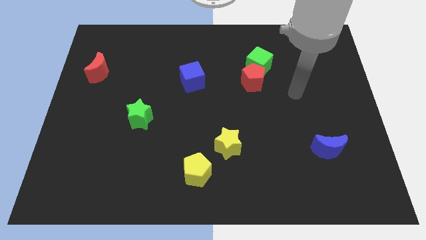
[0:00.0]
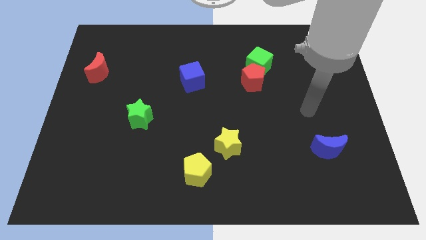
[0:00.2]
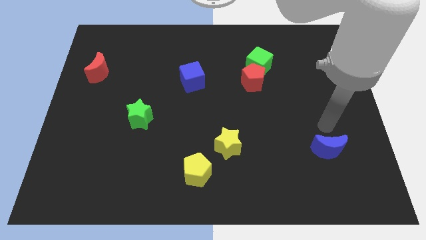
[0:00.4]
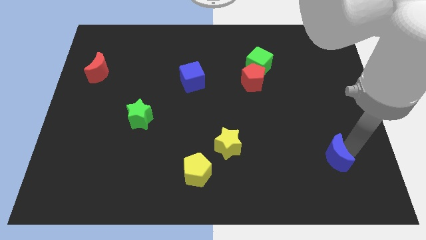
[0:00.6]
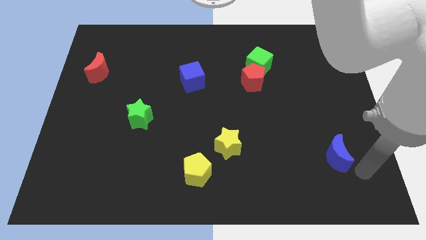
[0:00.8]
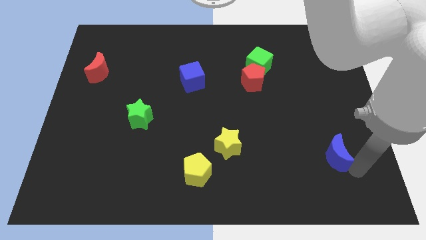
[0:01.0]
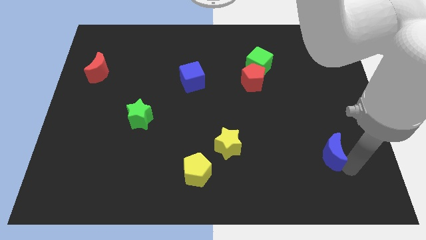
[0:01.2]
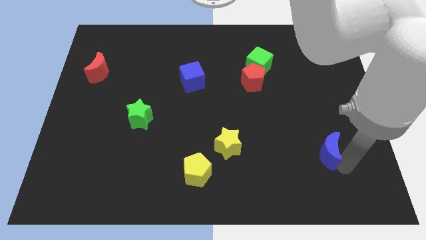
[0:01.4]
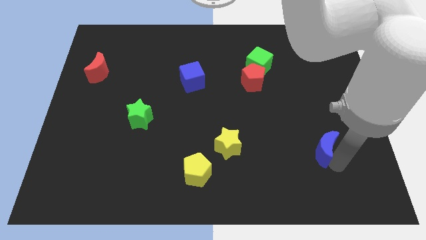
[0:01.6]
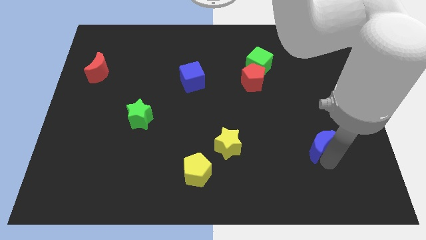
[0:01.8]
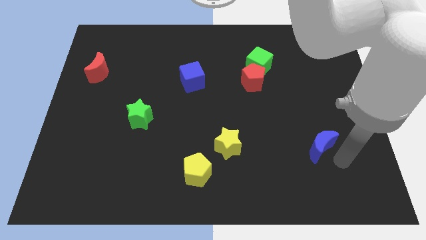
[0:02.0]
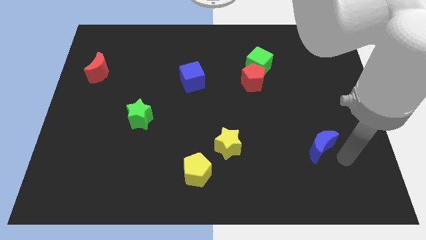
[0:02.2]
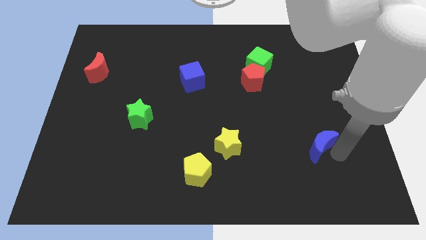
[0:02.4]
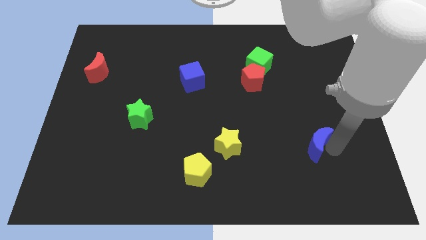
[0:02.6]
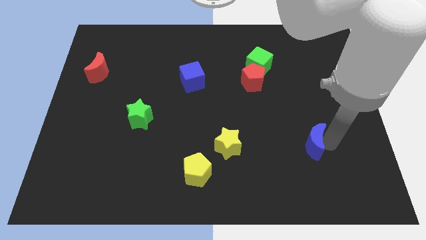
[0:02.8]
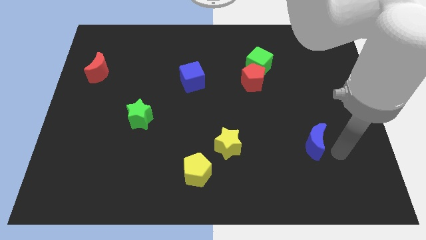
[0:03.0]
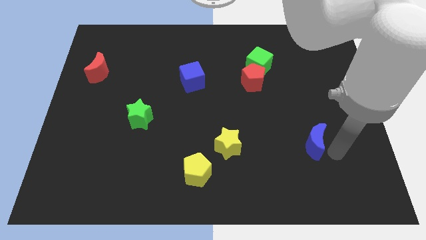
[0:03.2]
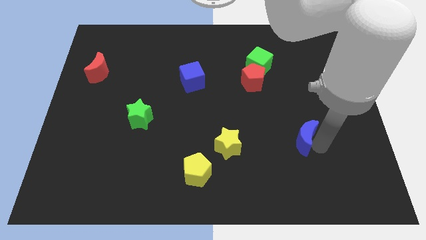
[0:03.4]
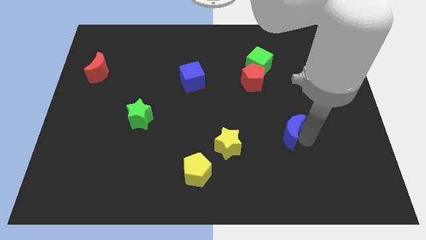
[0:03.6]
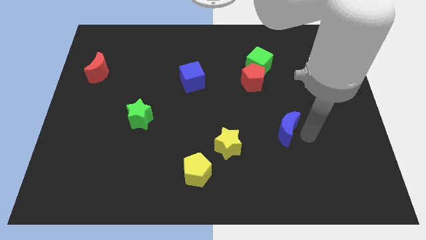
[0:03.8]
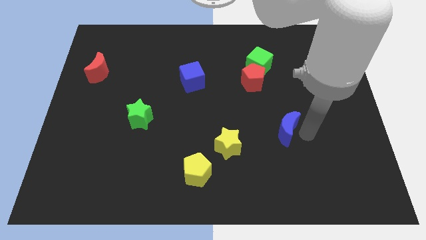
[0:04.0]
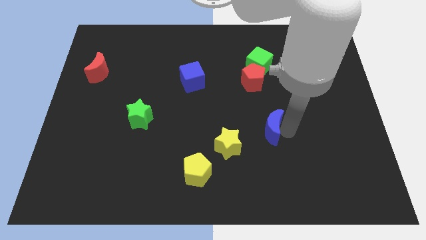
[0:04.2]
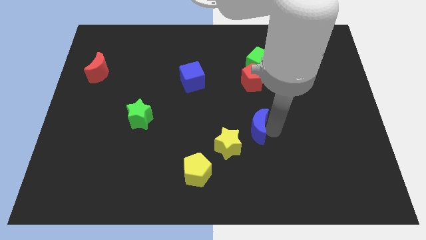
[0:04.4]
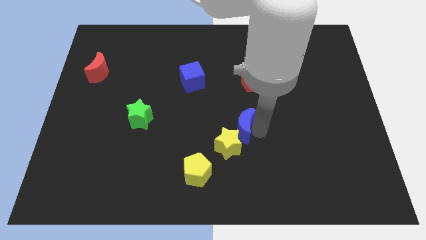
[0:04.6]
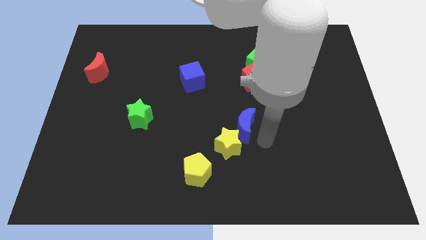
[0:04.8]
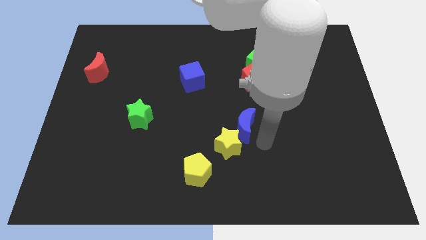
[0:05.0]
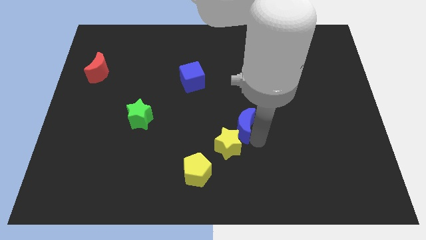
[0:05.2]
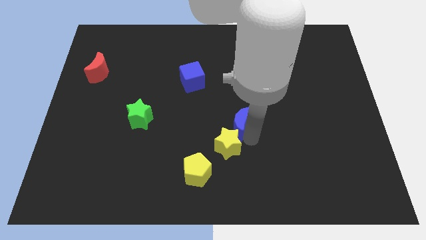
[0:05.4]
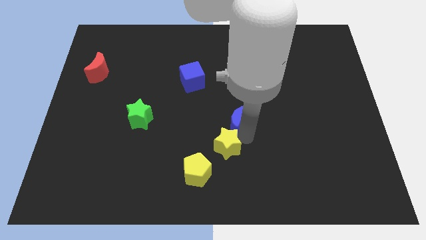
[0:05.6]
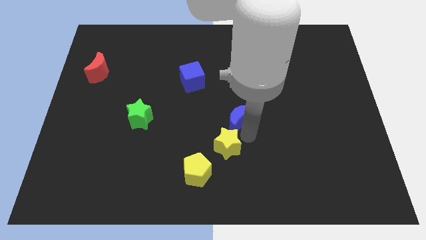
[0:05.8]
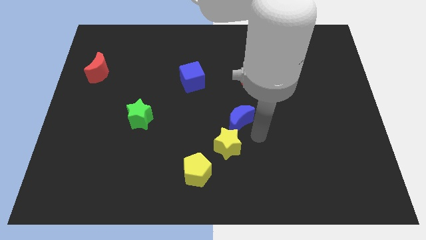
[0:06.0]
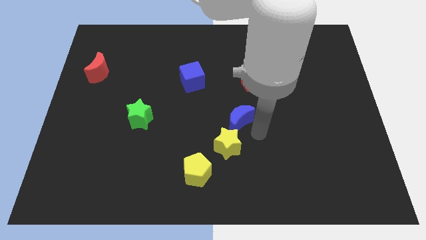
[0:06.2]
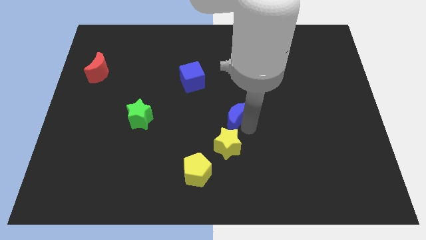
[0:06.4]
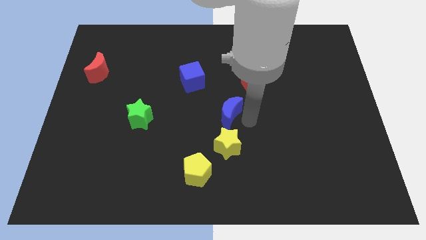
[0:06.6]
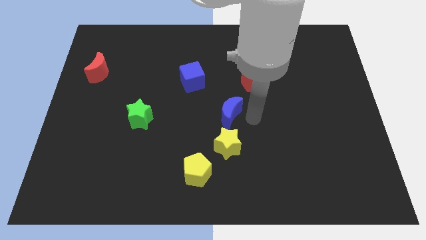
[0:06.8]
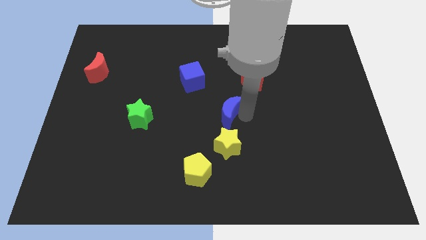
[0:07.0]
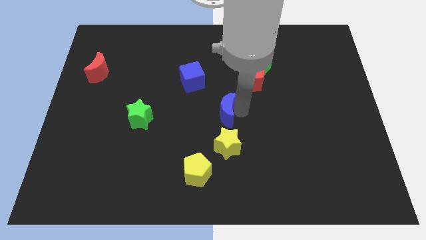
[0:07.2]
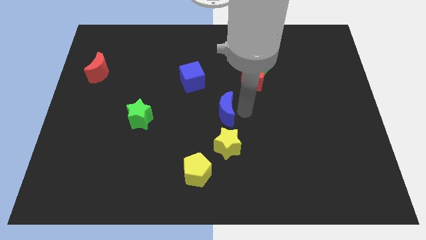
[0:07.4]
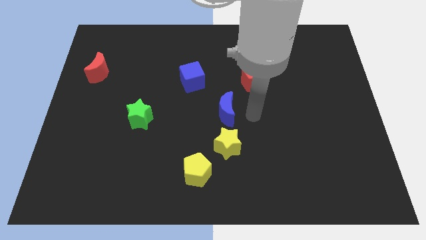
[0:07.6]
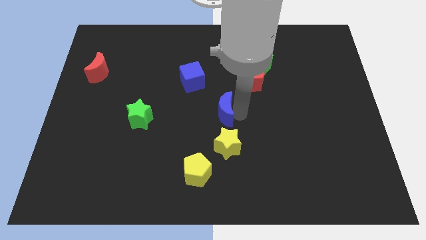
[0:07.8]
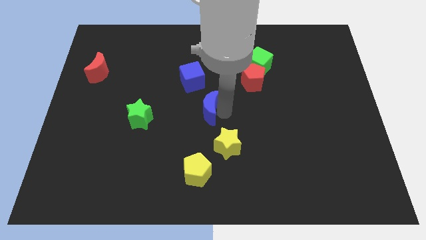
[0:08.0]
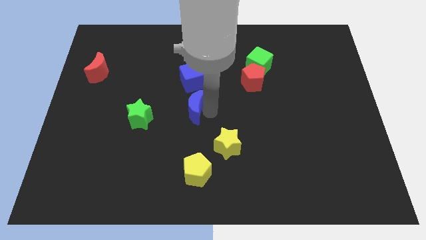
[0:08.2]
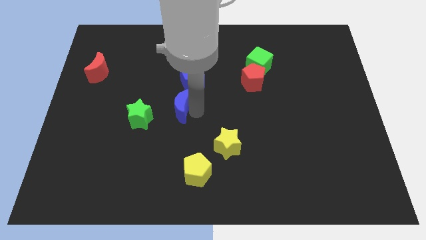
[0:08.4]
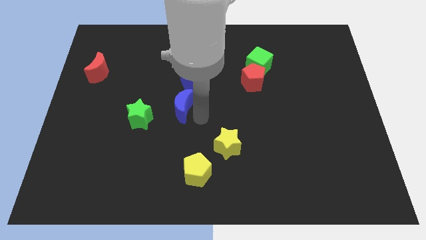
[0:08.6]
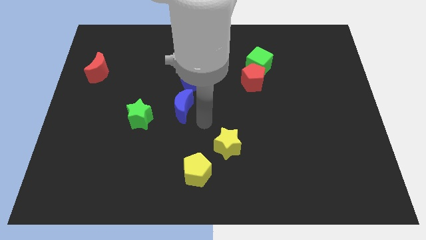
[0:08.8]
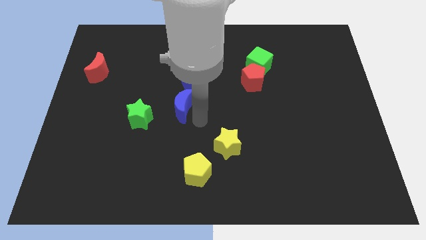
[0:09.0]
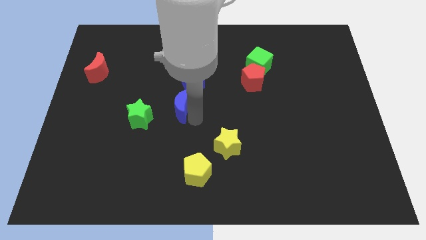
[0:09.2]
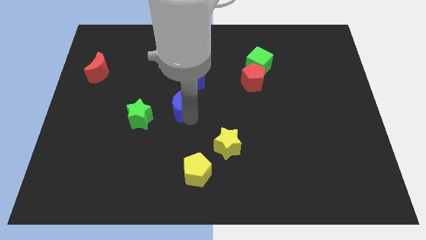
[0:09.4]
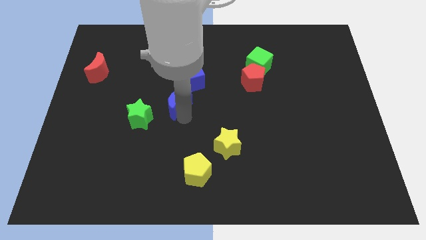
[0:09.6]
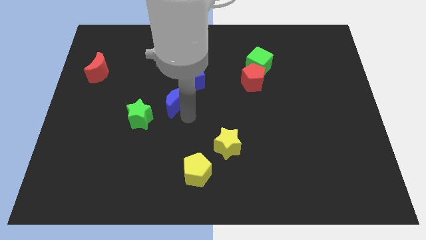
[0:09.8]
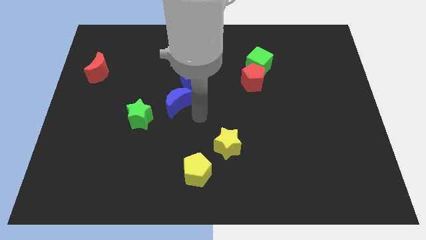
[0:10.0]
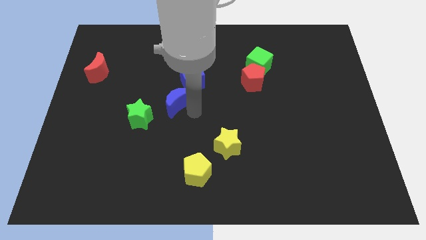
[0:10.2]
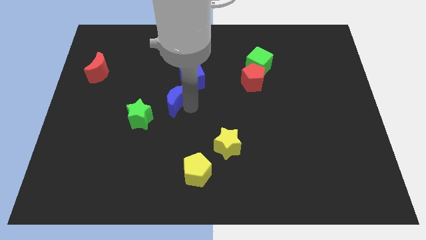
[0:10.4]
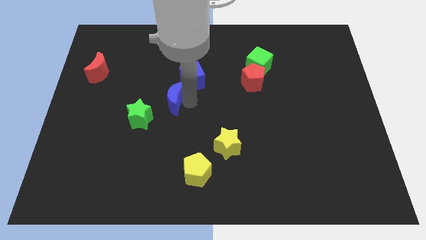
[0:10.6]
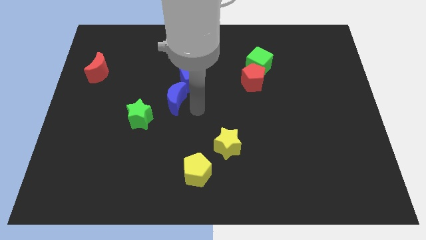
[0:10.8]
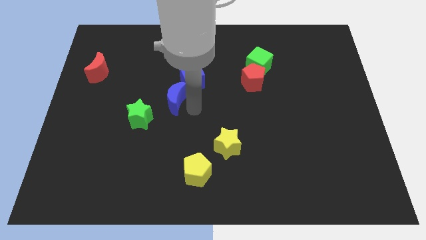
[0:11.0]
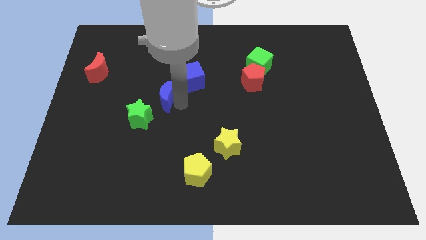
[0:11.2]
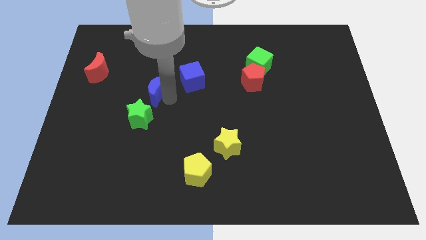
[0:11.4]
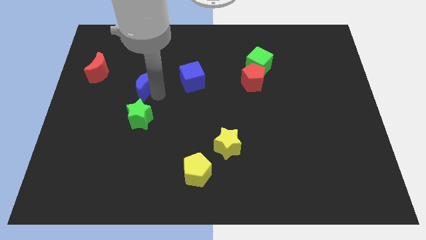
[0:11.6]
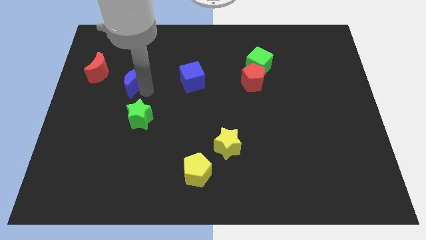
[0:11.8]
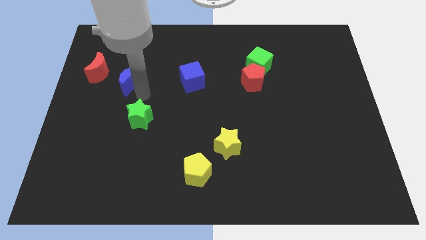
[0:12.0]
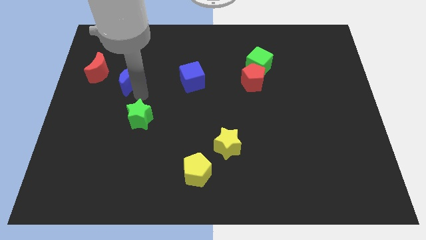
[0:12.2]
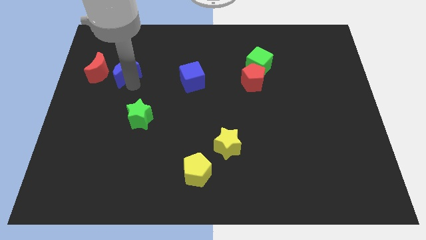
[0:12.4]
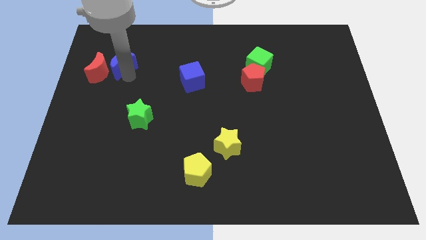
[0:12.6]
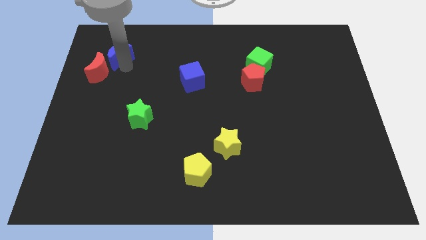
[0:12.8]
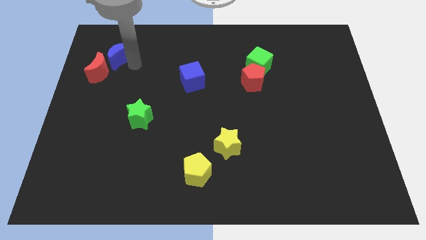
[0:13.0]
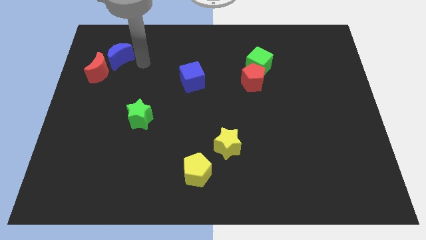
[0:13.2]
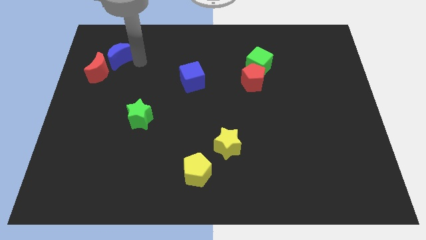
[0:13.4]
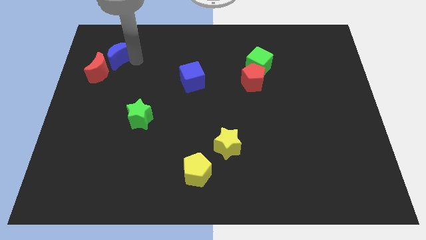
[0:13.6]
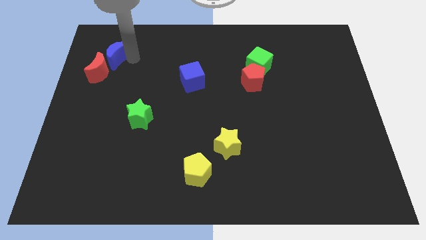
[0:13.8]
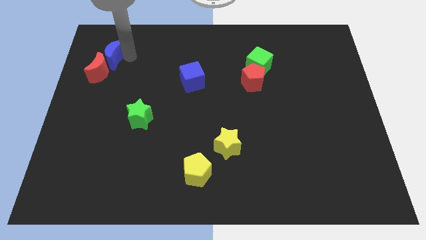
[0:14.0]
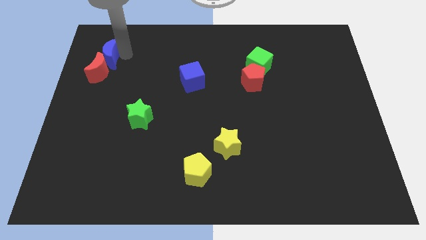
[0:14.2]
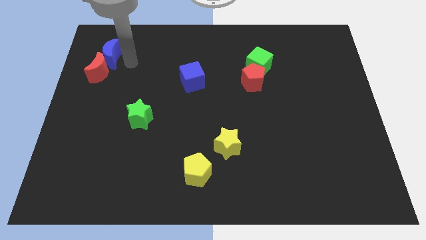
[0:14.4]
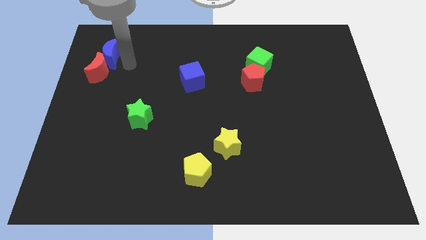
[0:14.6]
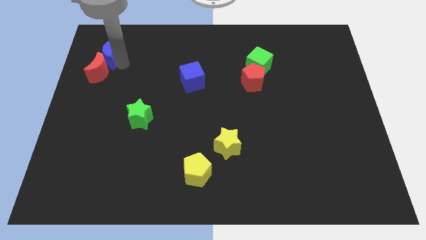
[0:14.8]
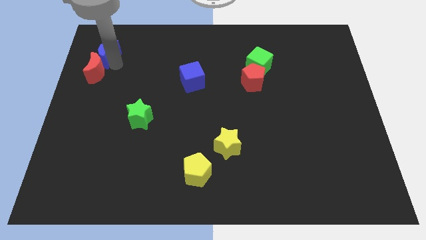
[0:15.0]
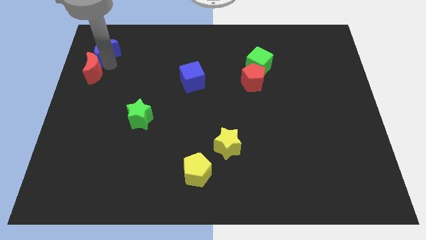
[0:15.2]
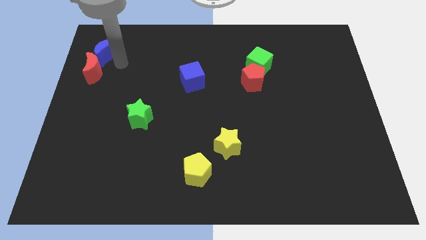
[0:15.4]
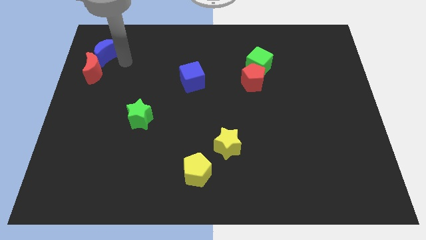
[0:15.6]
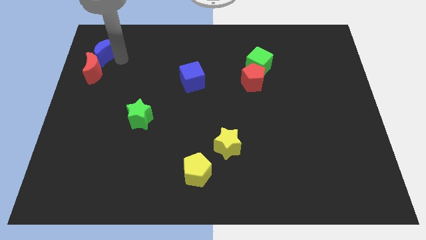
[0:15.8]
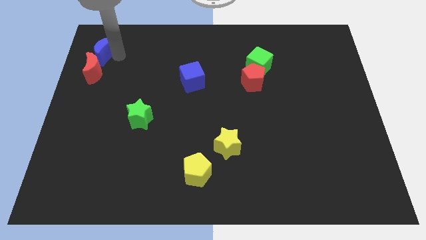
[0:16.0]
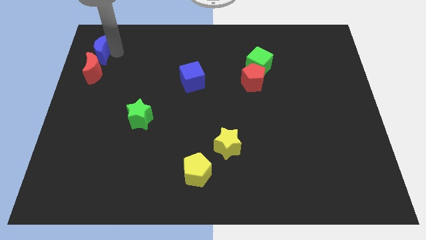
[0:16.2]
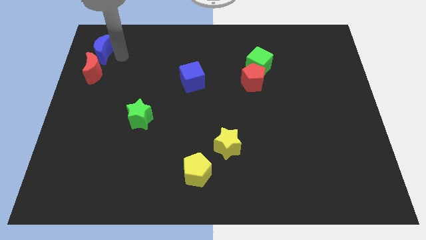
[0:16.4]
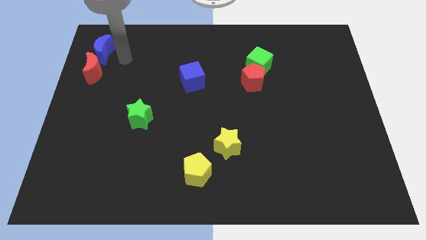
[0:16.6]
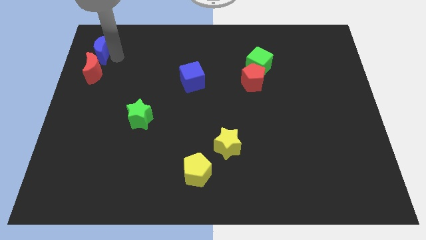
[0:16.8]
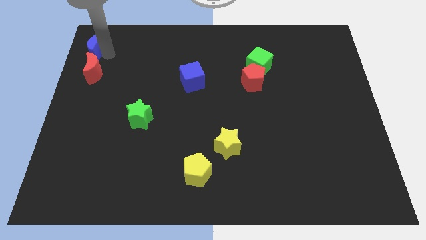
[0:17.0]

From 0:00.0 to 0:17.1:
move the blue moon to the upper left corner
